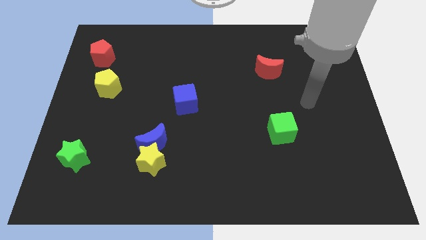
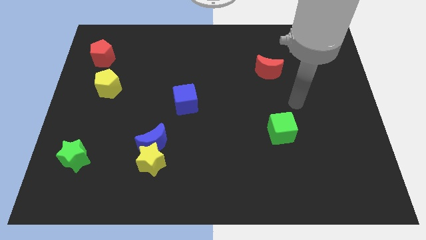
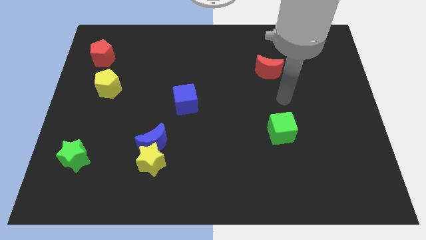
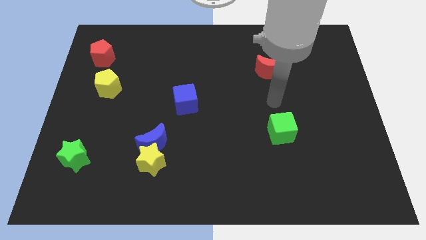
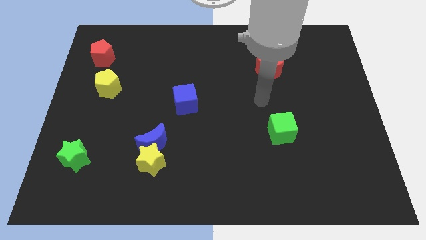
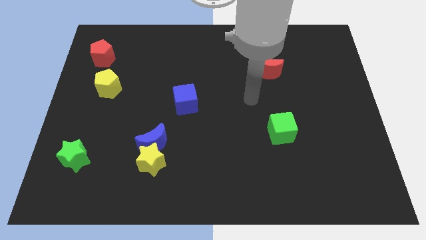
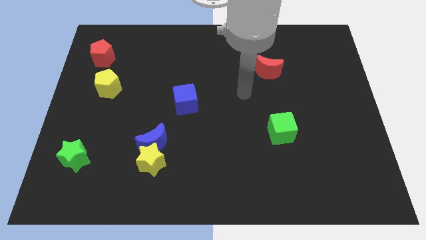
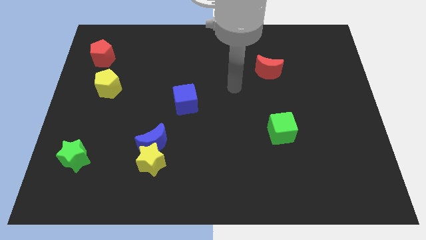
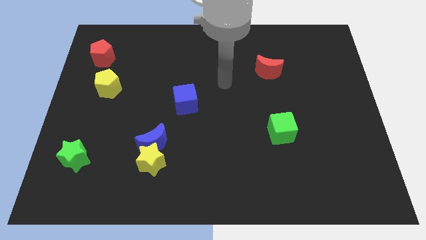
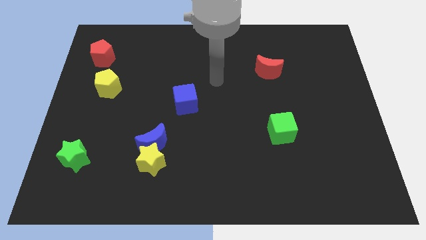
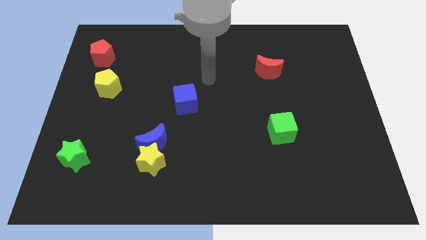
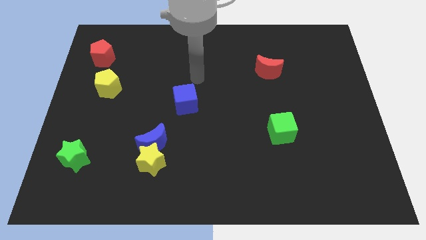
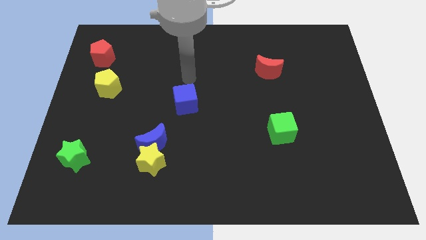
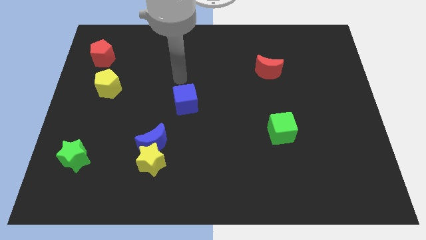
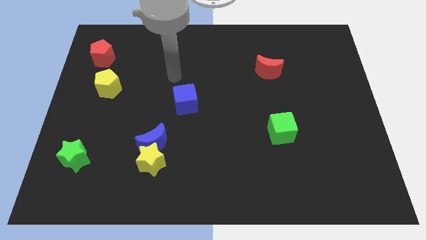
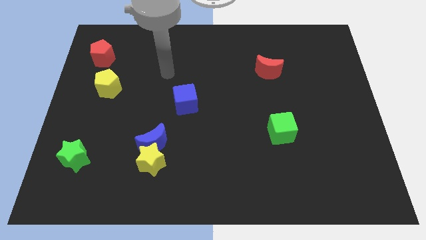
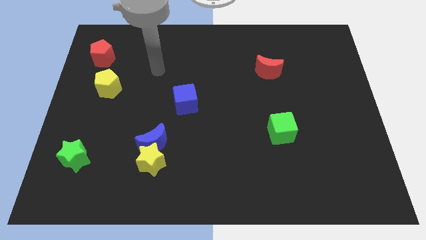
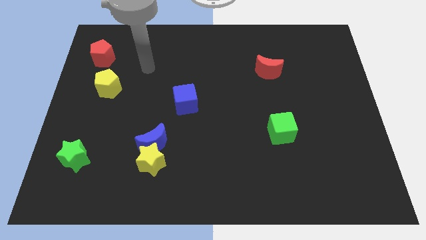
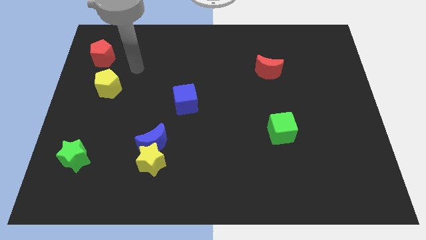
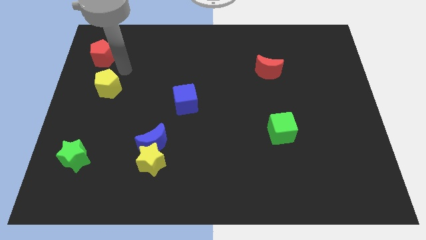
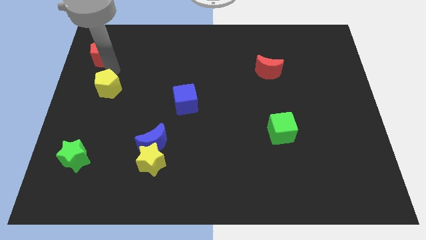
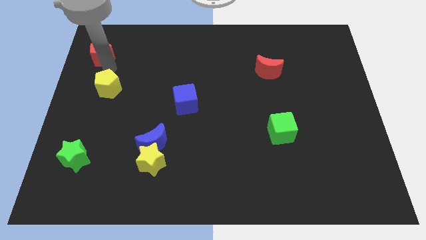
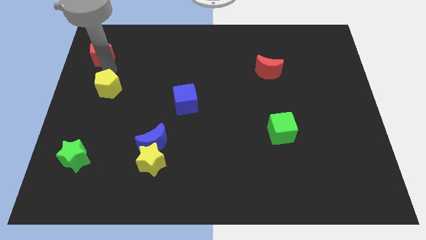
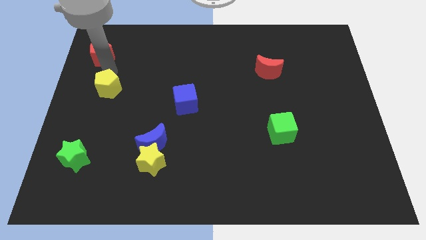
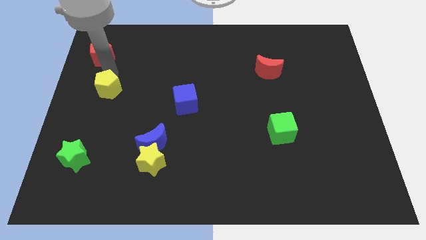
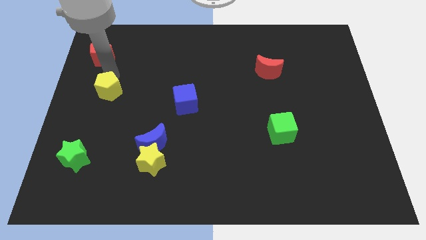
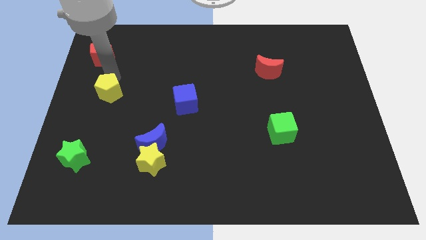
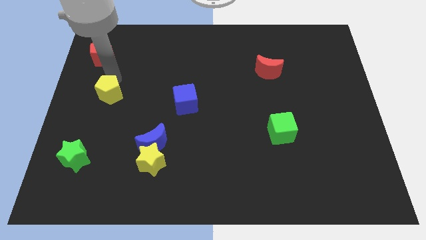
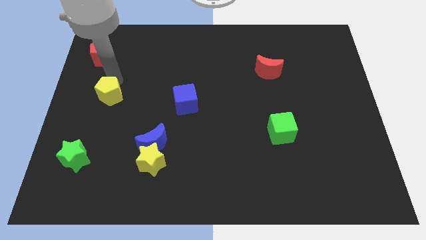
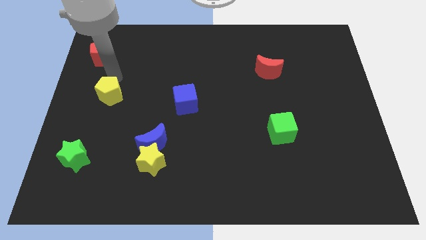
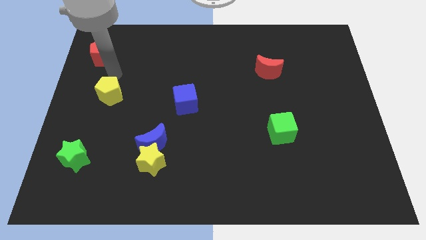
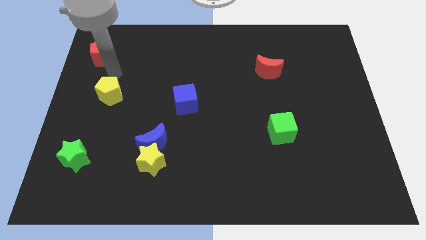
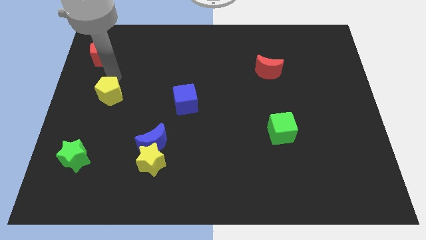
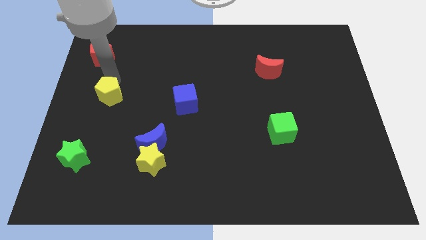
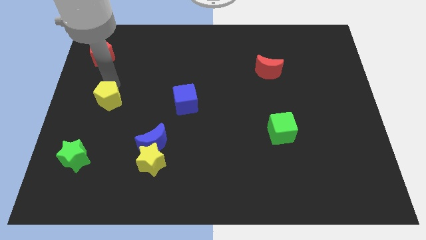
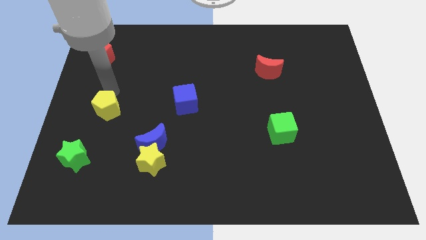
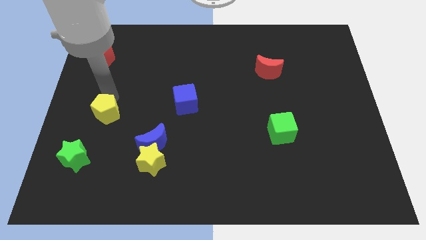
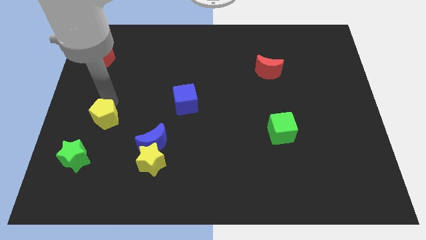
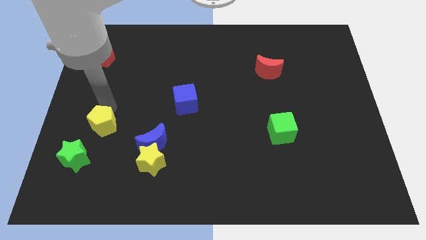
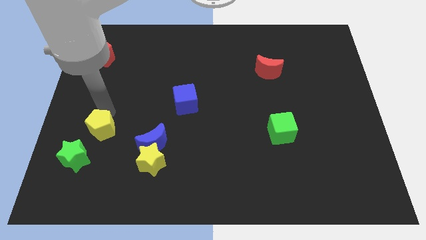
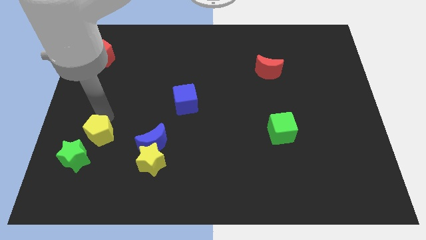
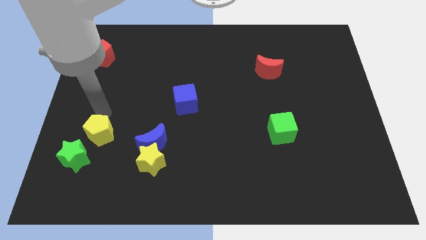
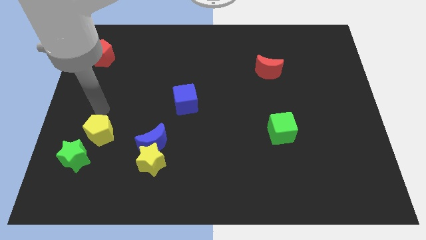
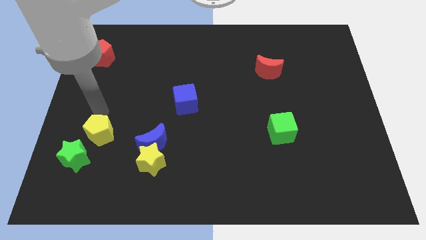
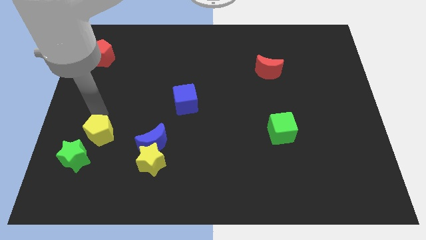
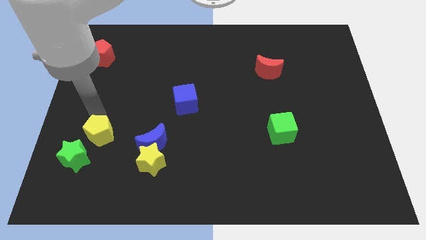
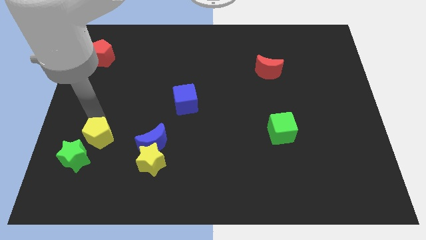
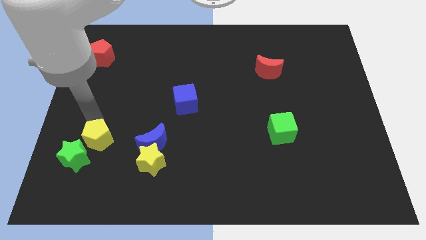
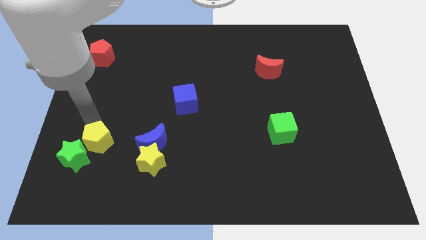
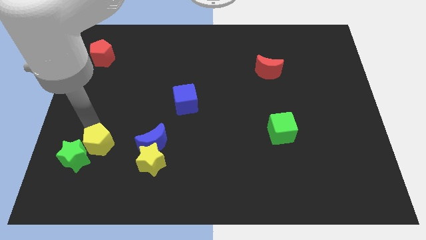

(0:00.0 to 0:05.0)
slide the yellow pentagon to the left side of the yellow star

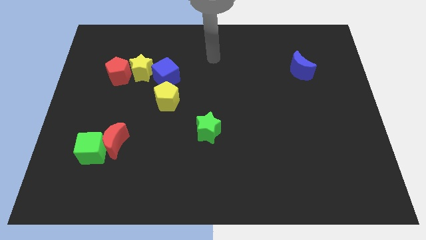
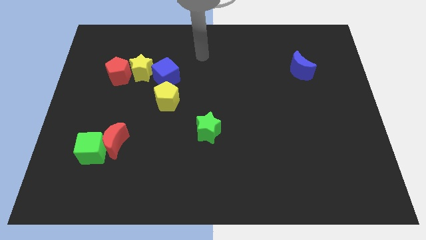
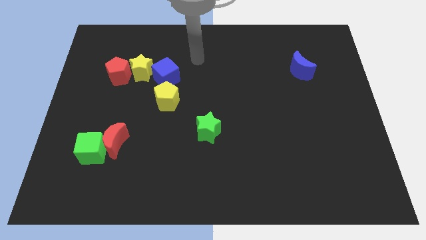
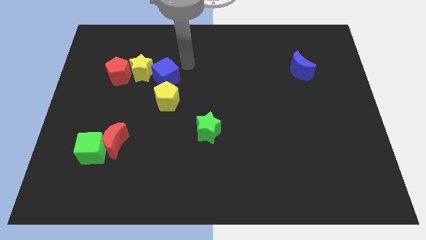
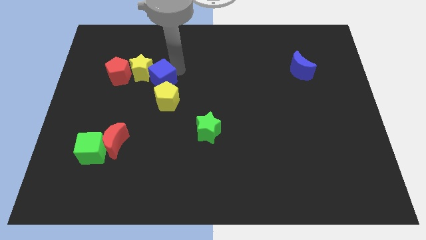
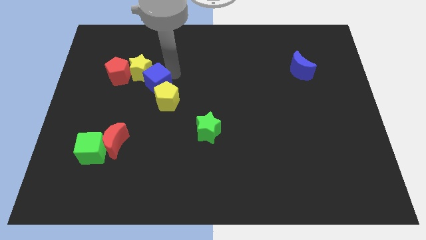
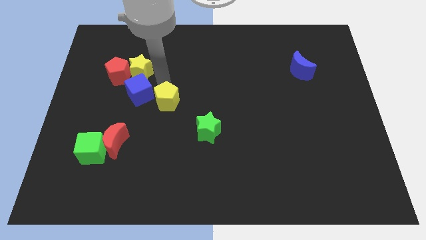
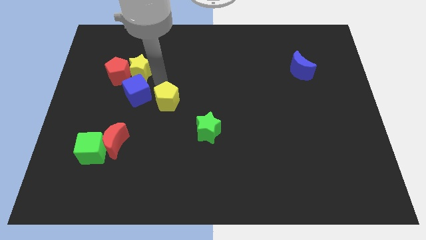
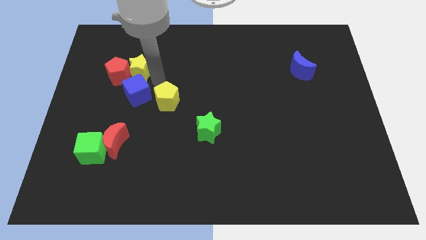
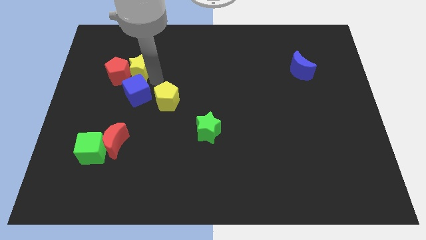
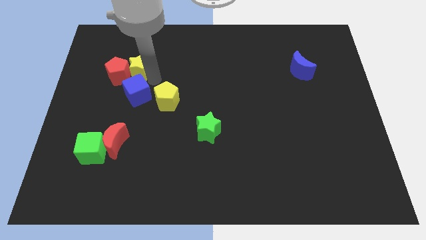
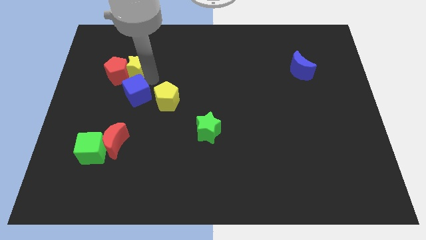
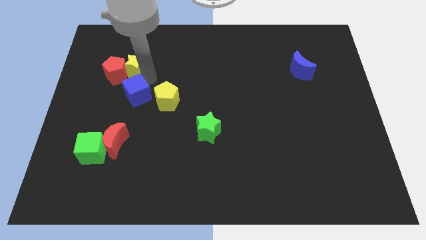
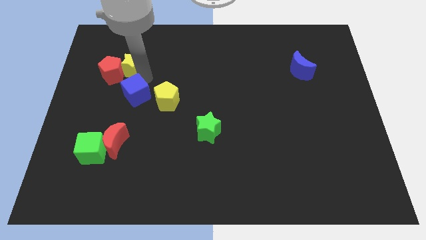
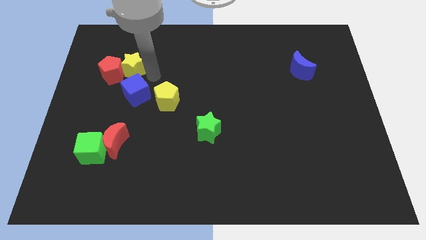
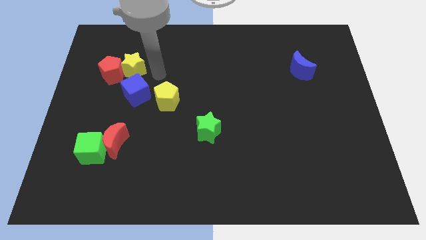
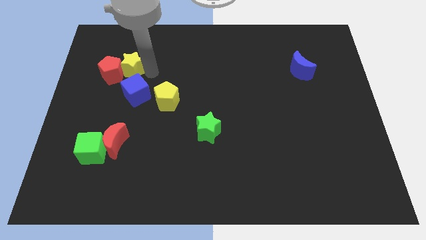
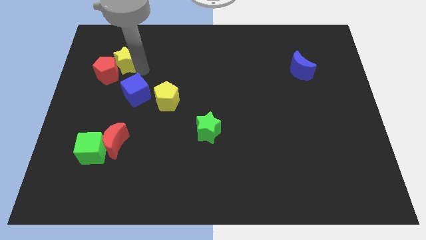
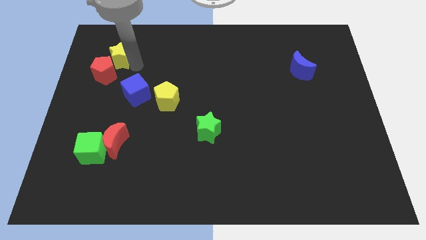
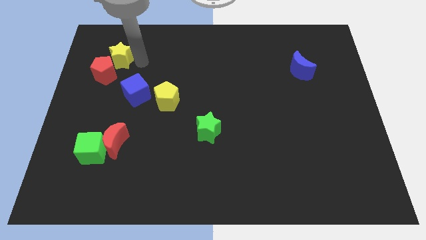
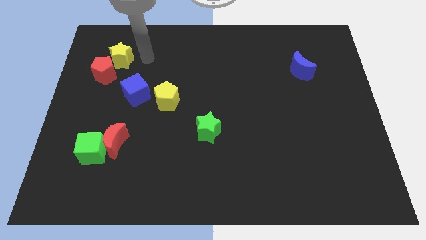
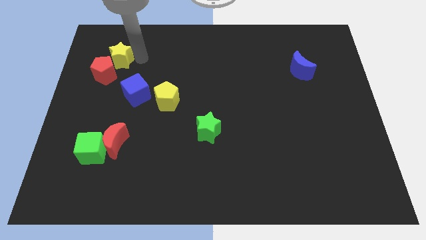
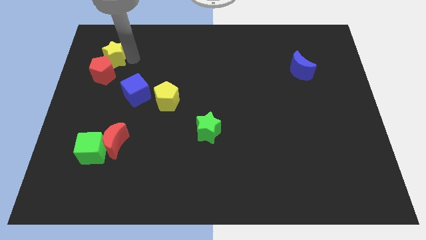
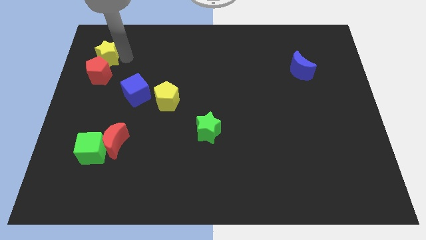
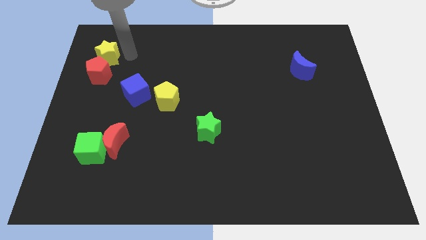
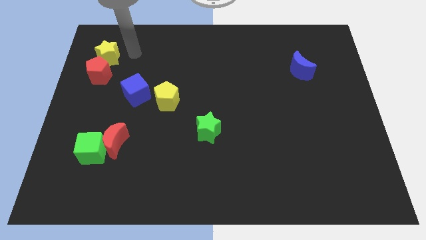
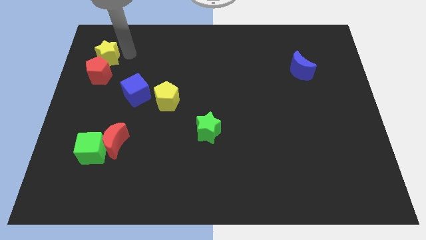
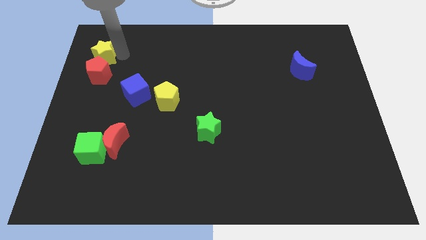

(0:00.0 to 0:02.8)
move the yellow star to the top left side of the red pentagon
